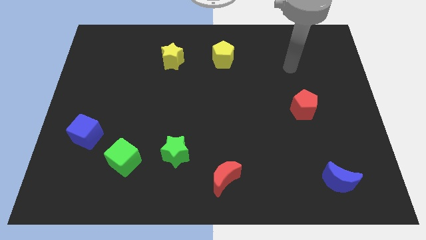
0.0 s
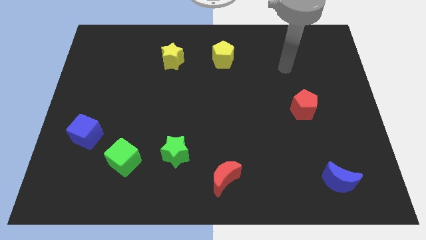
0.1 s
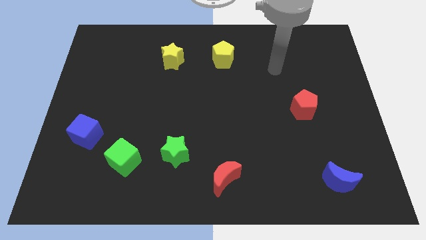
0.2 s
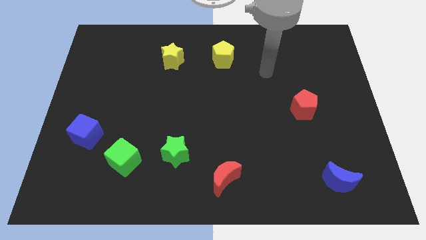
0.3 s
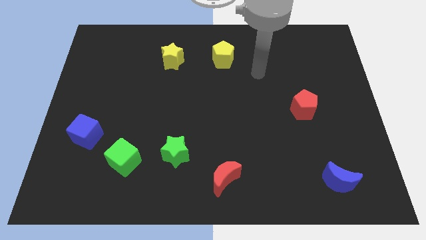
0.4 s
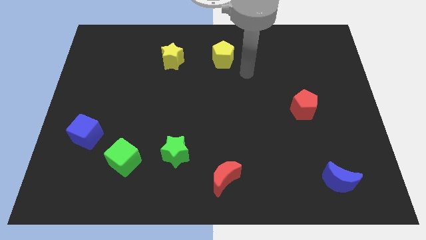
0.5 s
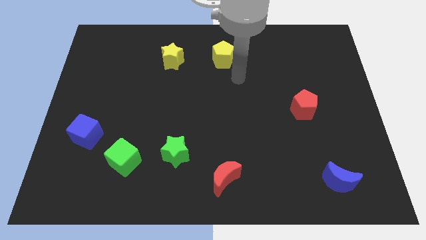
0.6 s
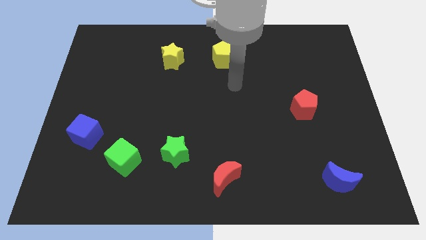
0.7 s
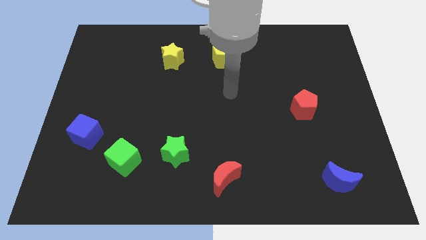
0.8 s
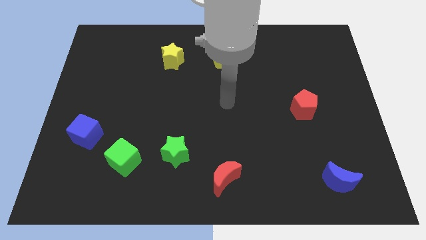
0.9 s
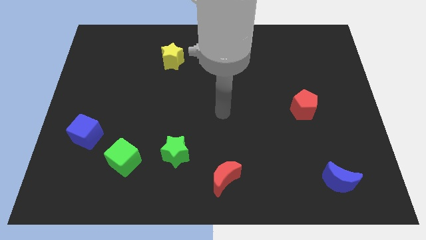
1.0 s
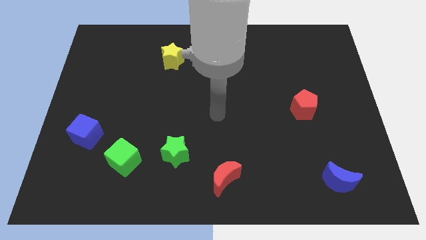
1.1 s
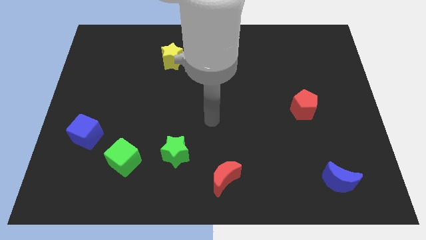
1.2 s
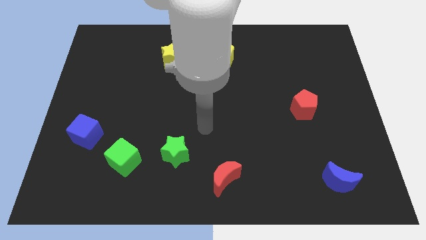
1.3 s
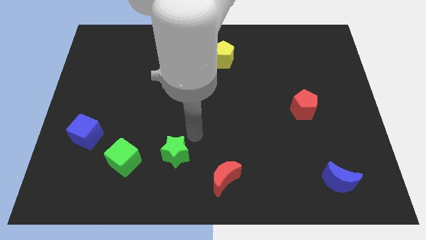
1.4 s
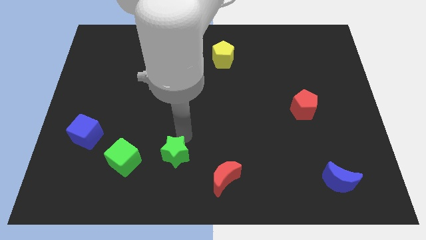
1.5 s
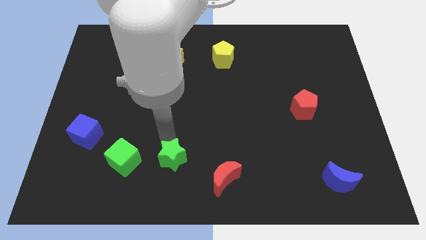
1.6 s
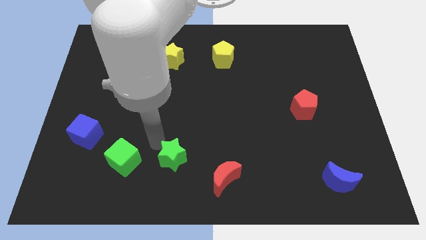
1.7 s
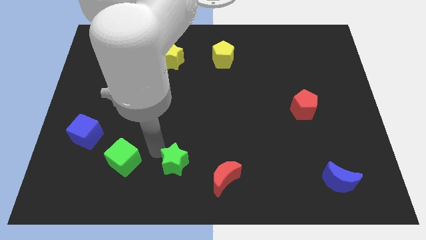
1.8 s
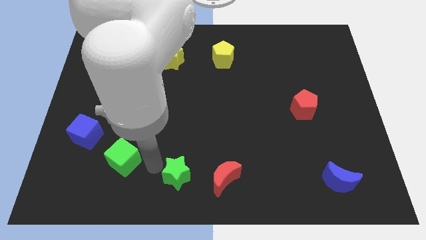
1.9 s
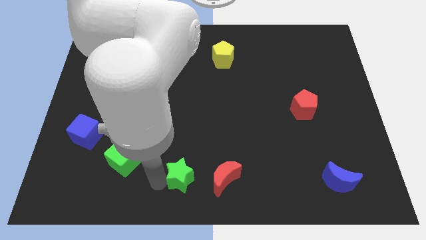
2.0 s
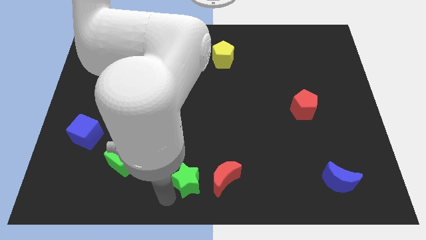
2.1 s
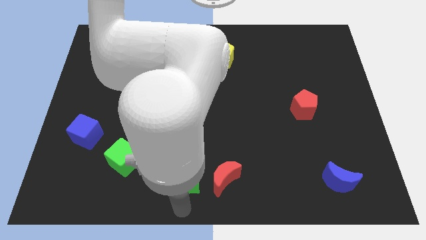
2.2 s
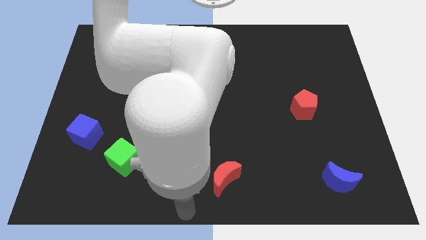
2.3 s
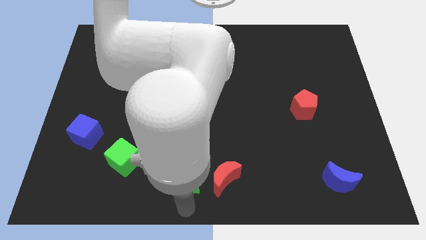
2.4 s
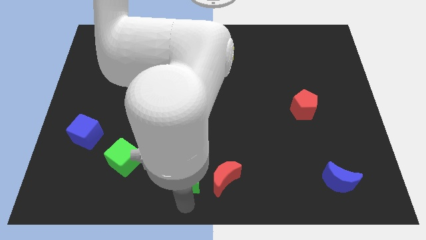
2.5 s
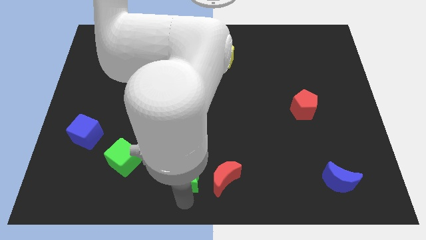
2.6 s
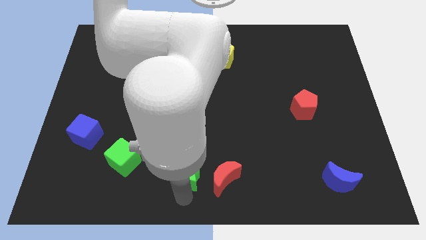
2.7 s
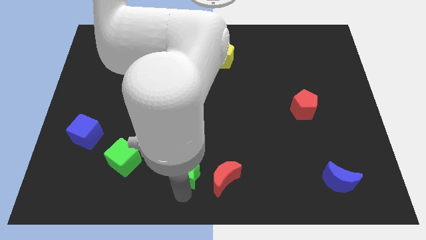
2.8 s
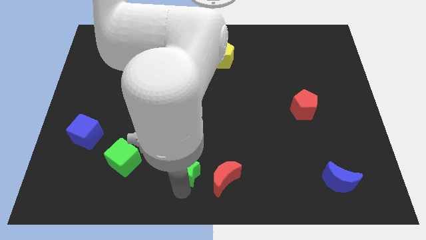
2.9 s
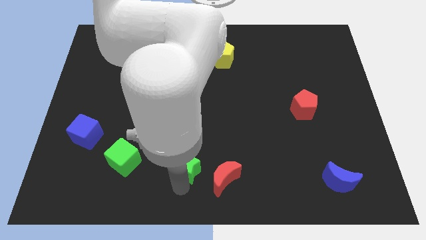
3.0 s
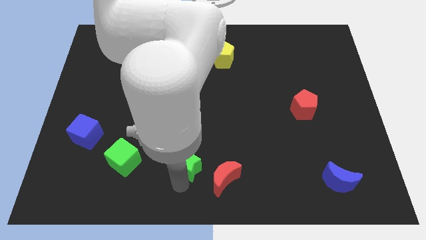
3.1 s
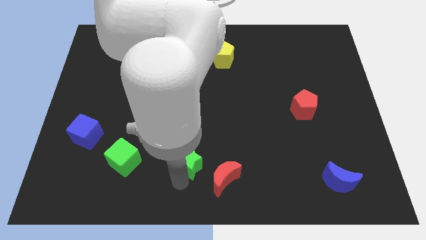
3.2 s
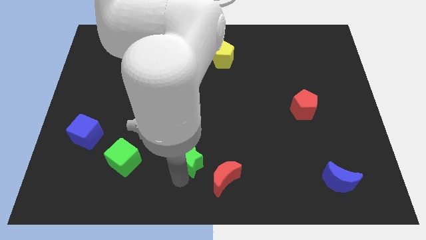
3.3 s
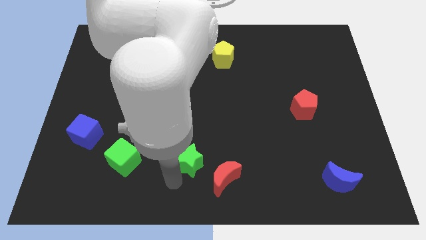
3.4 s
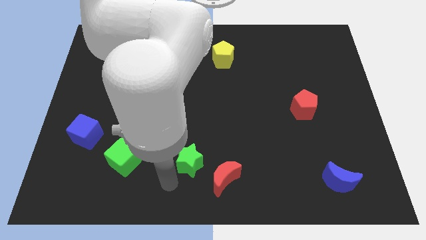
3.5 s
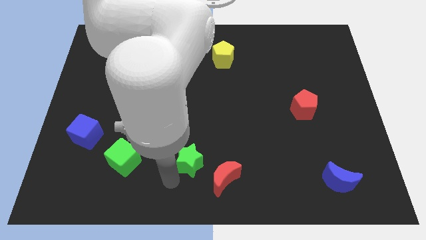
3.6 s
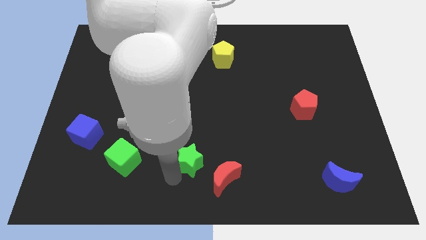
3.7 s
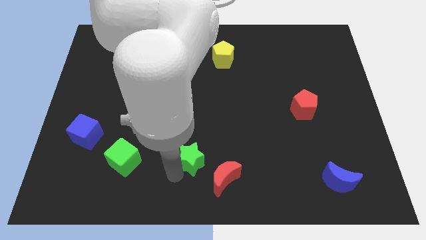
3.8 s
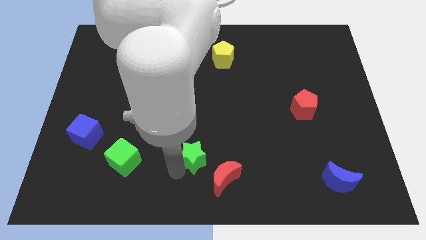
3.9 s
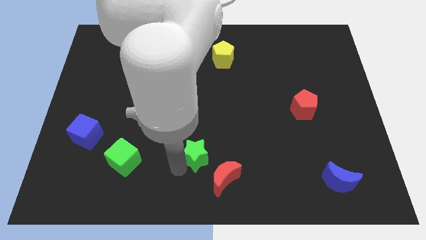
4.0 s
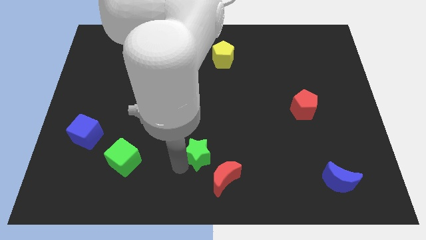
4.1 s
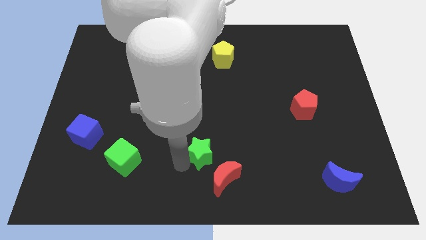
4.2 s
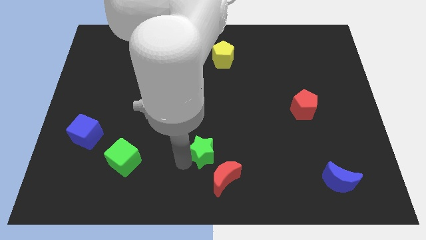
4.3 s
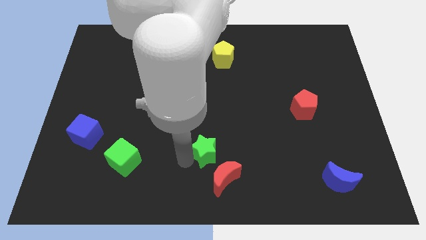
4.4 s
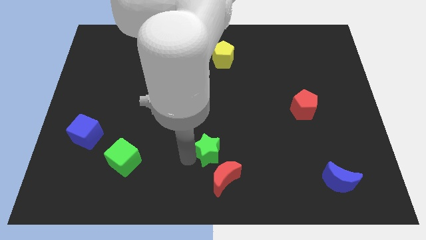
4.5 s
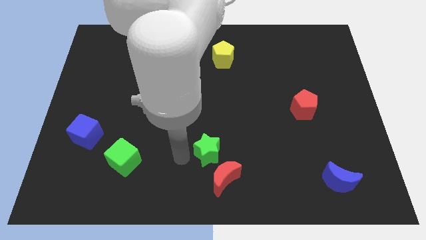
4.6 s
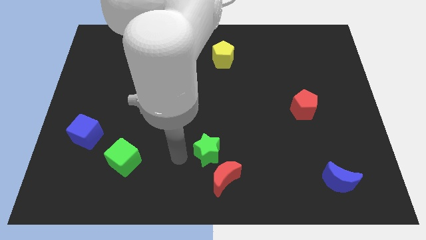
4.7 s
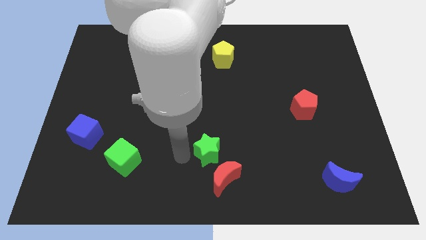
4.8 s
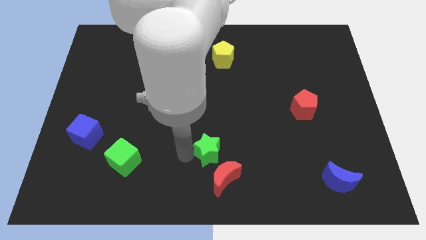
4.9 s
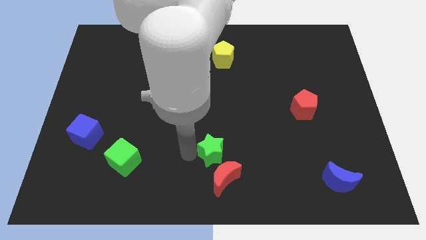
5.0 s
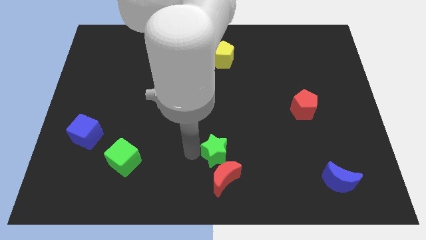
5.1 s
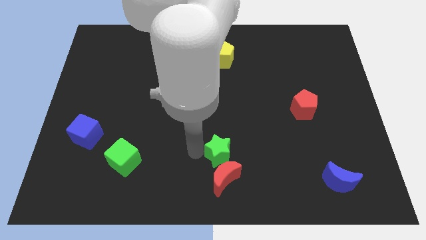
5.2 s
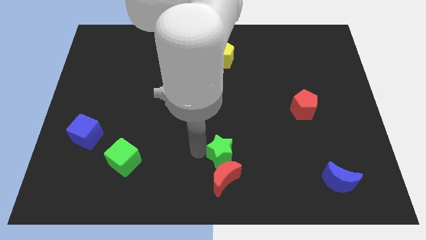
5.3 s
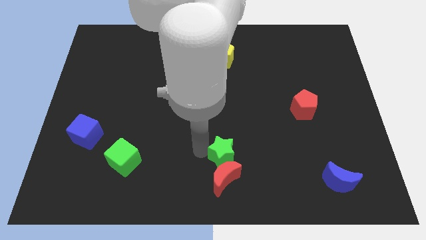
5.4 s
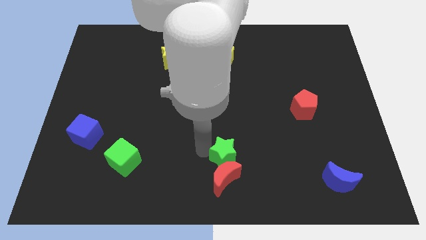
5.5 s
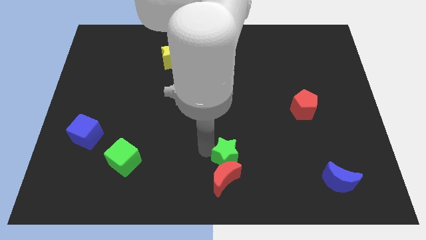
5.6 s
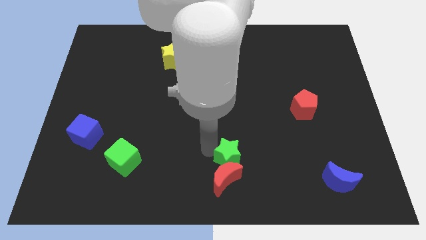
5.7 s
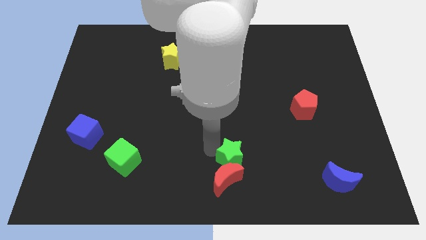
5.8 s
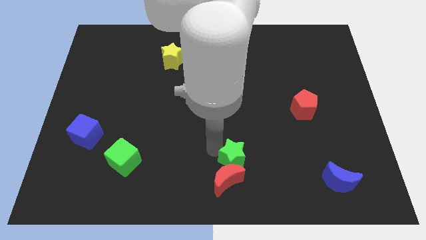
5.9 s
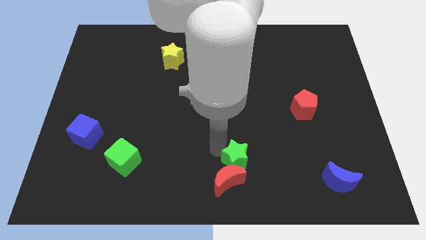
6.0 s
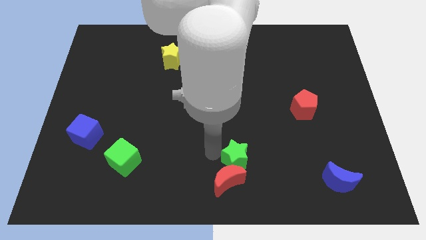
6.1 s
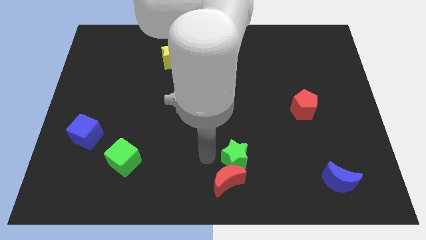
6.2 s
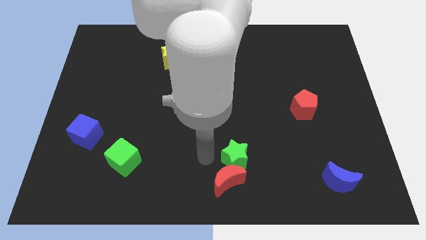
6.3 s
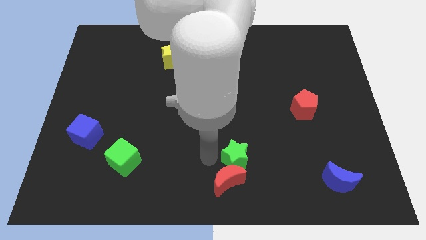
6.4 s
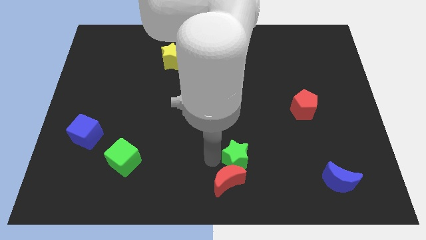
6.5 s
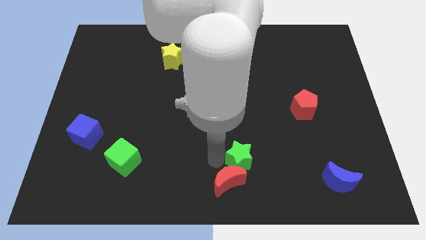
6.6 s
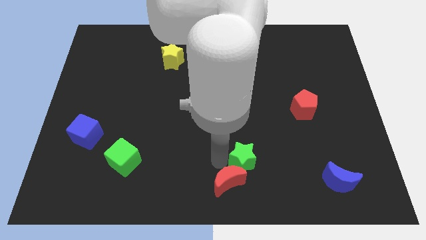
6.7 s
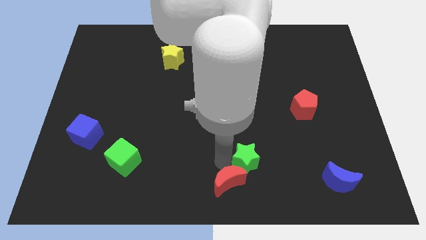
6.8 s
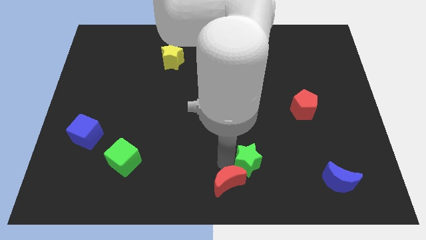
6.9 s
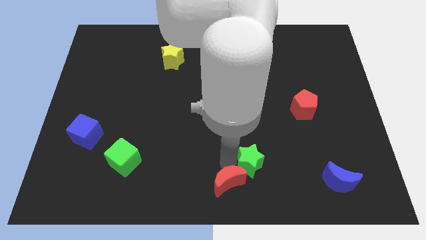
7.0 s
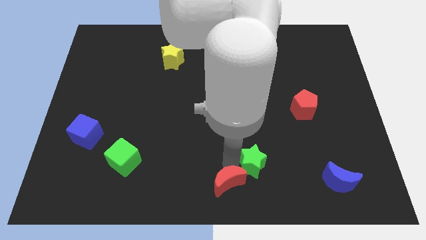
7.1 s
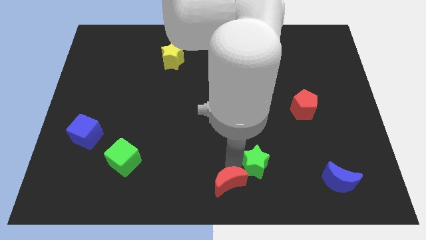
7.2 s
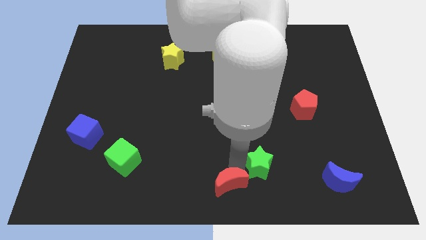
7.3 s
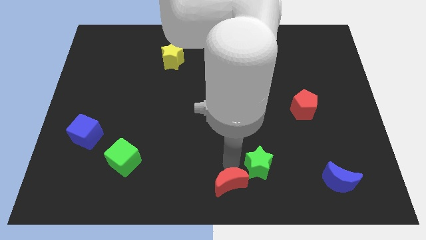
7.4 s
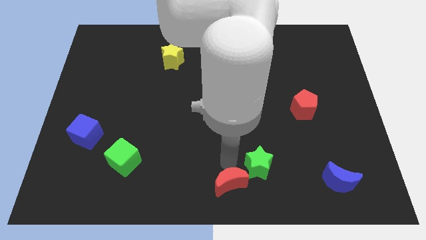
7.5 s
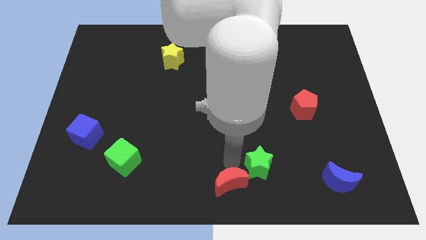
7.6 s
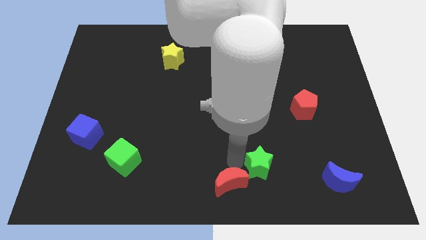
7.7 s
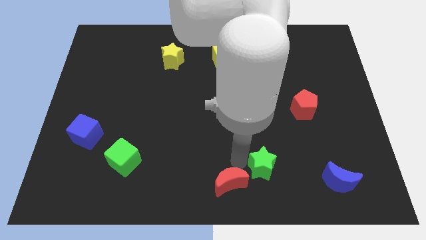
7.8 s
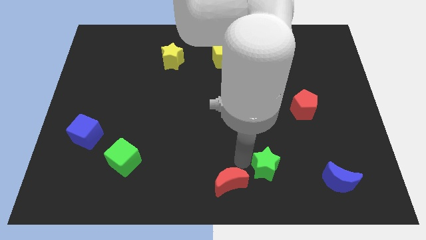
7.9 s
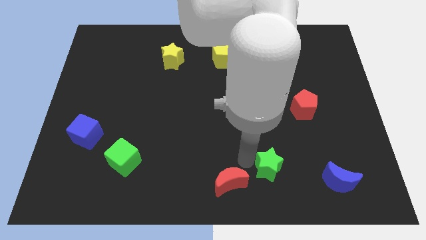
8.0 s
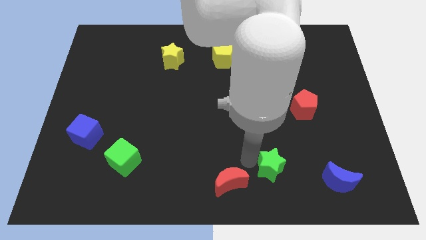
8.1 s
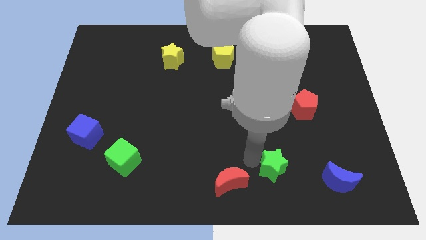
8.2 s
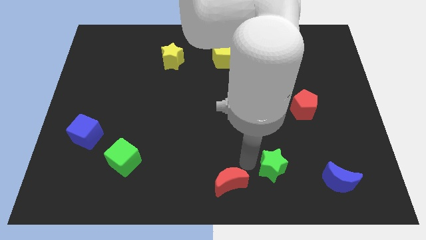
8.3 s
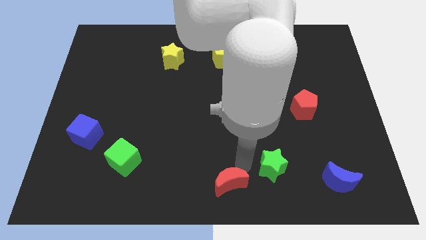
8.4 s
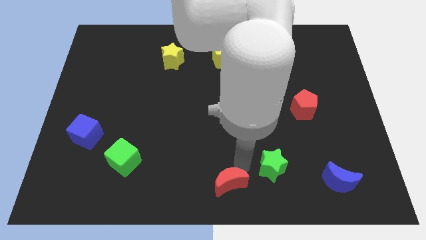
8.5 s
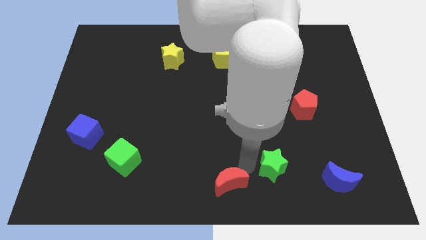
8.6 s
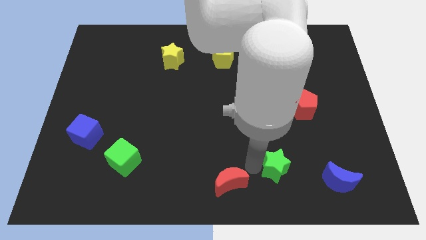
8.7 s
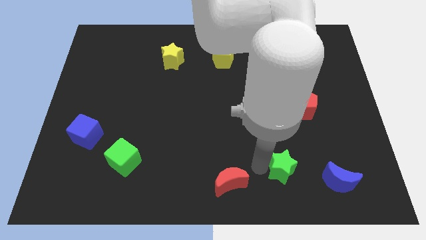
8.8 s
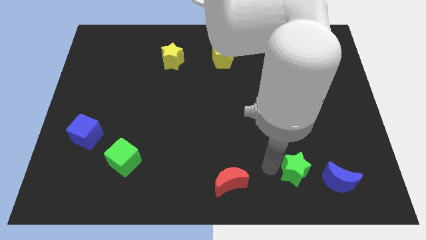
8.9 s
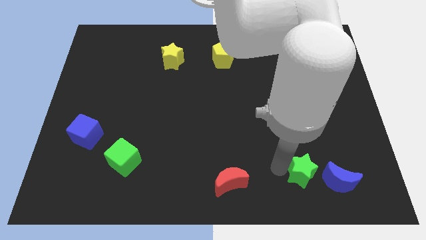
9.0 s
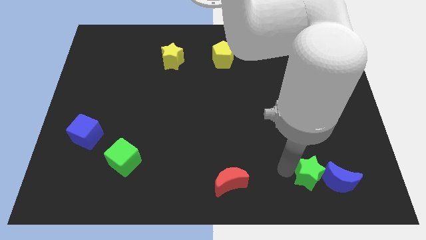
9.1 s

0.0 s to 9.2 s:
put the green star towards the blue moon
